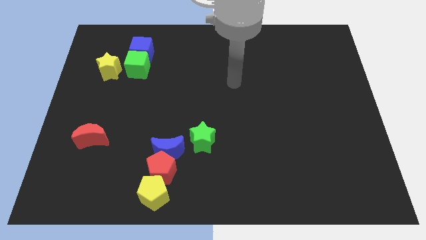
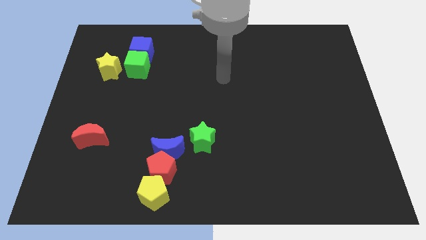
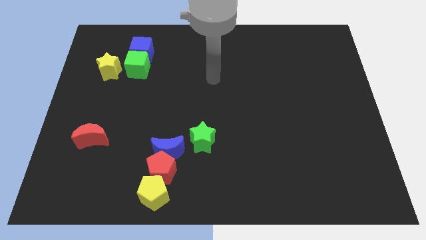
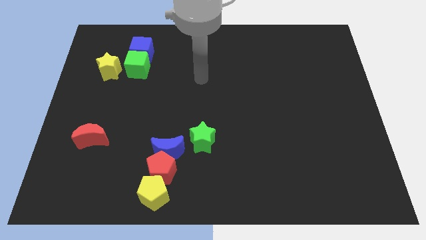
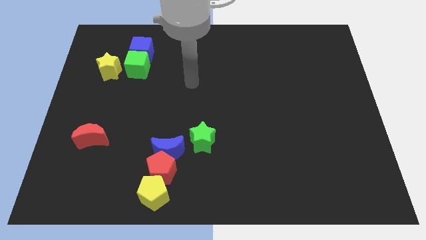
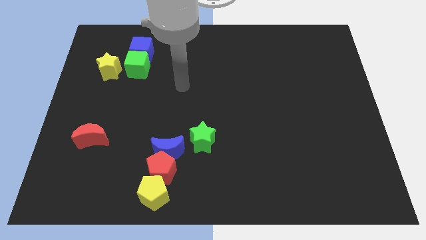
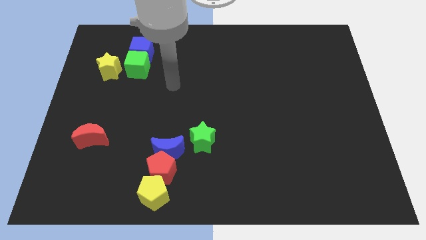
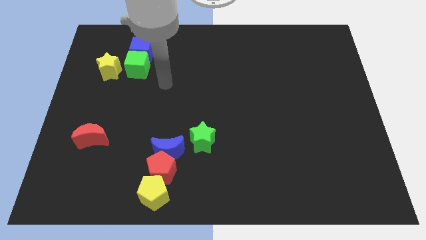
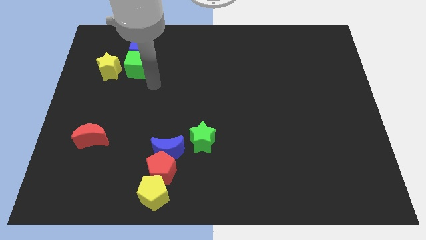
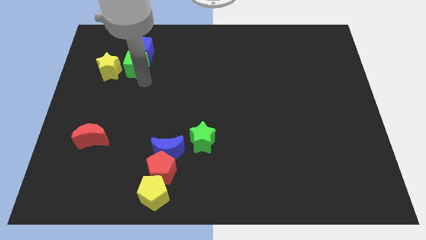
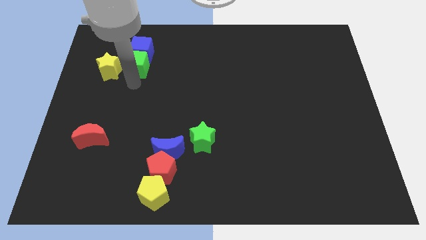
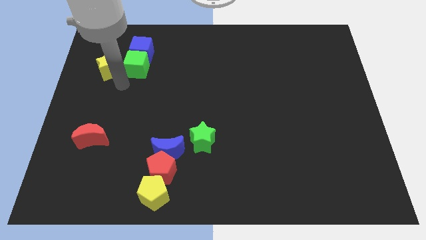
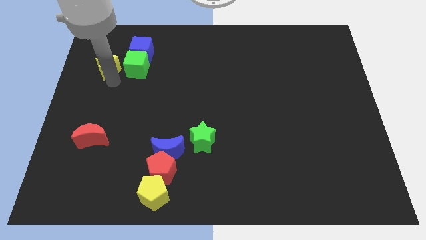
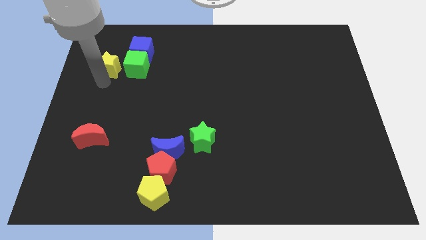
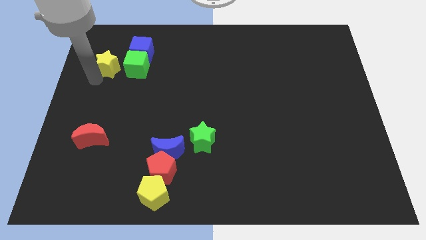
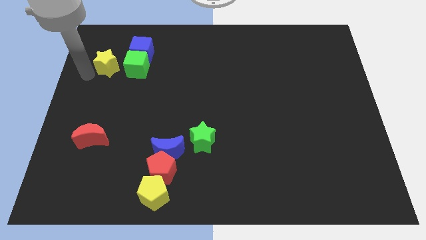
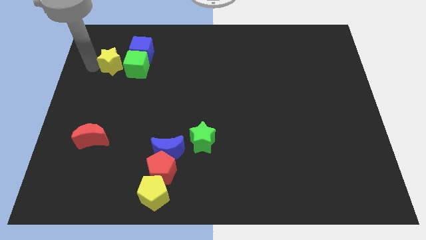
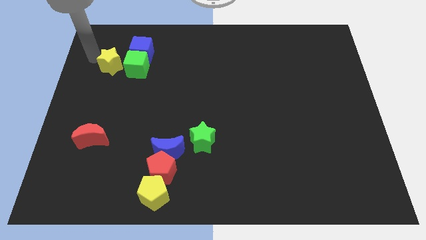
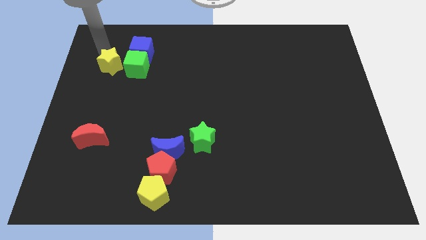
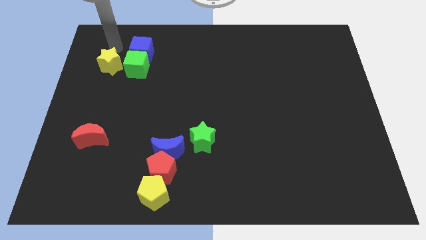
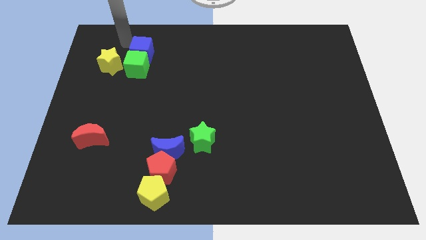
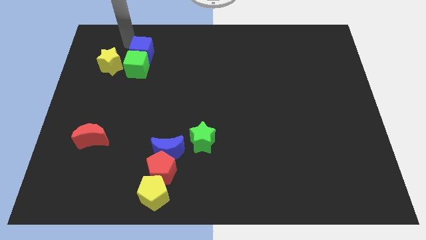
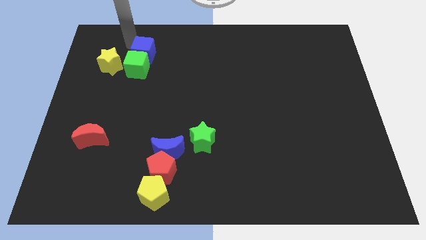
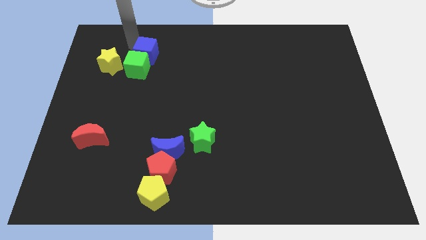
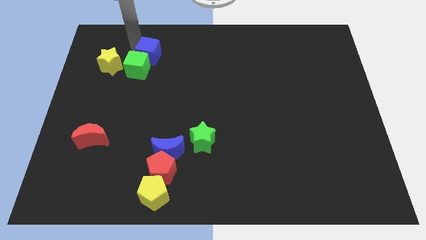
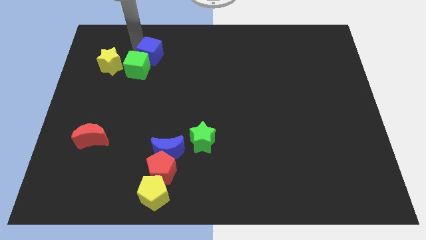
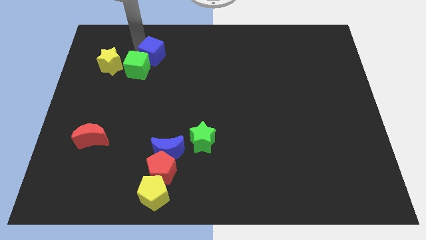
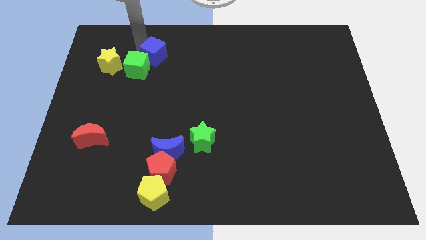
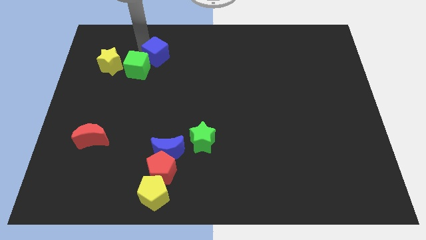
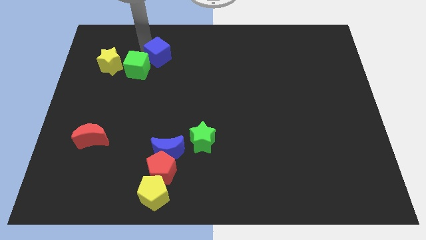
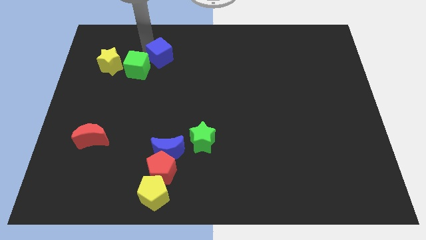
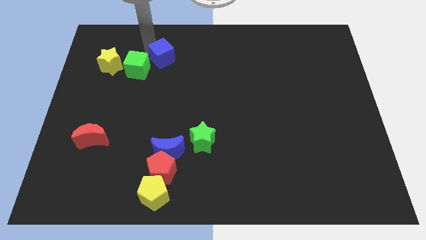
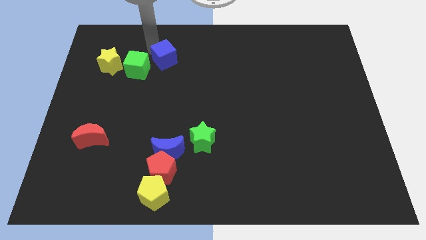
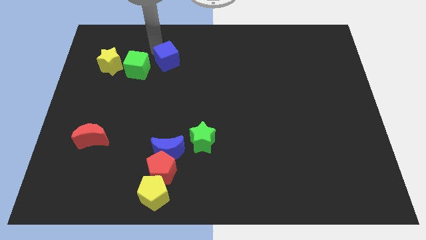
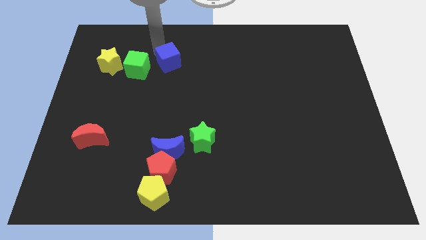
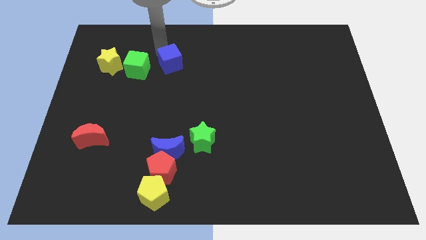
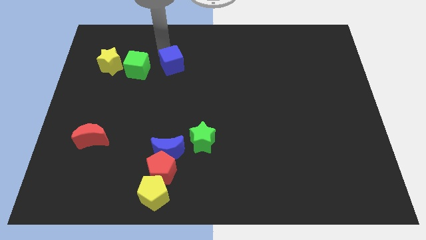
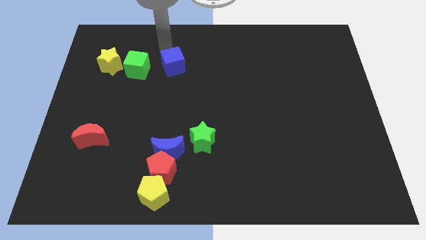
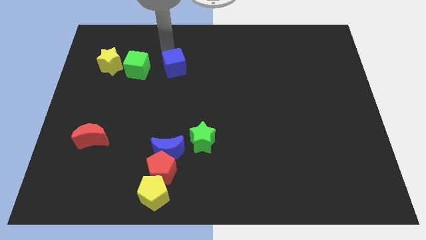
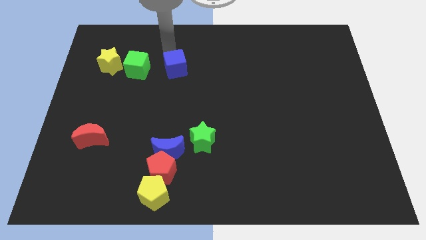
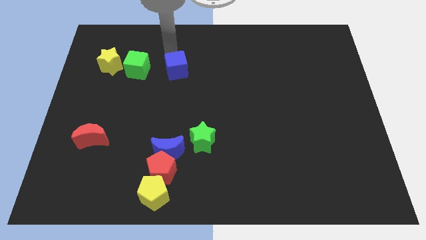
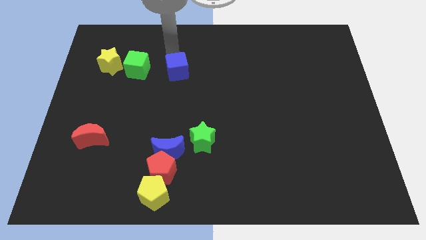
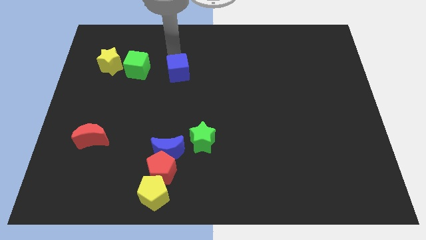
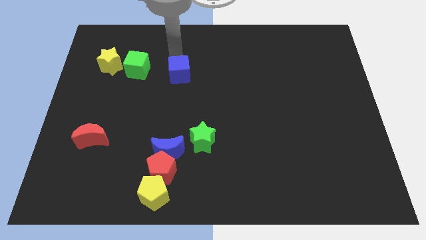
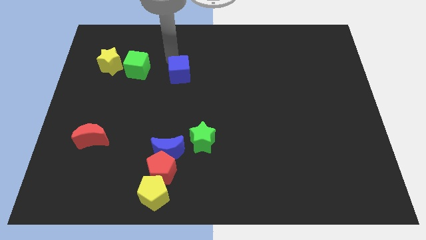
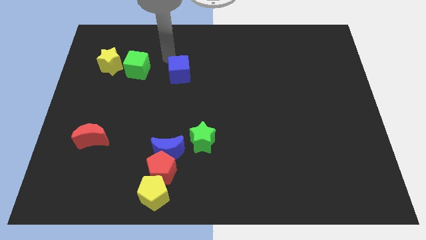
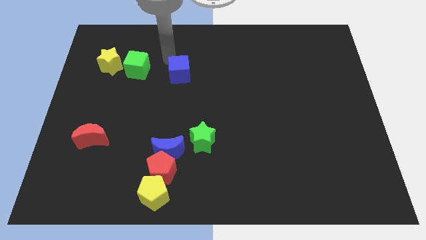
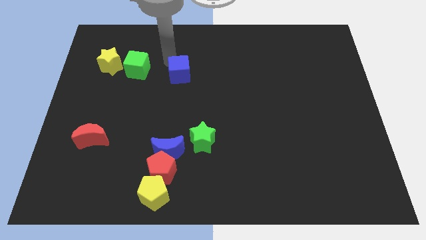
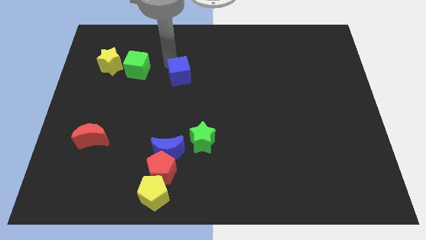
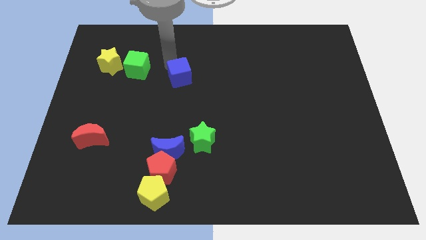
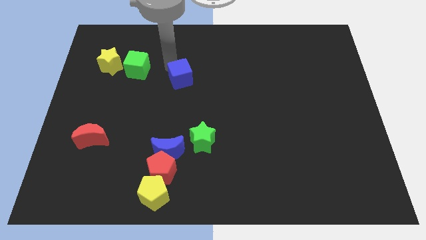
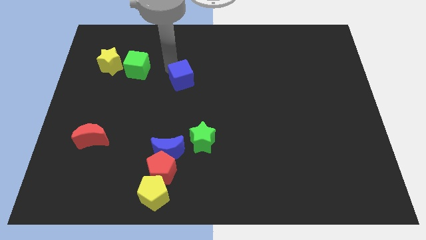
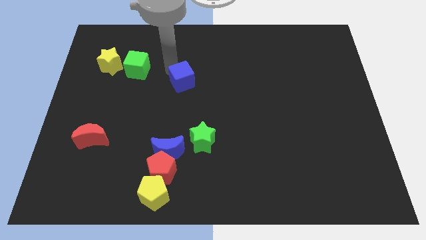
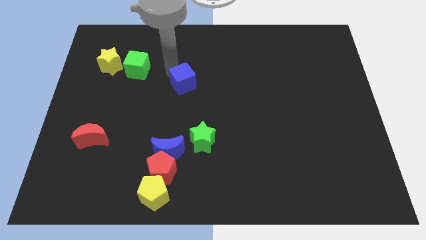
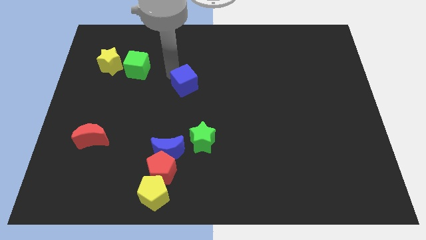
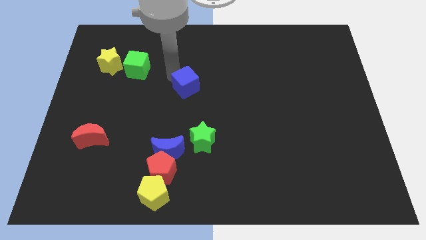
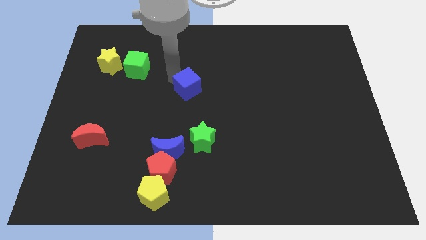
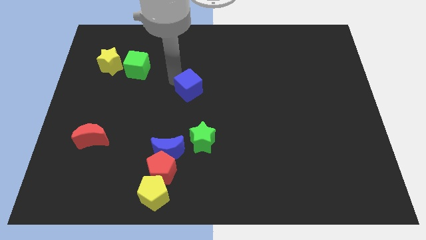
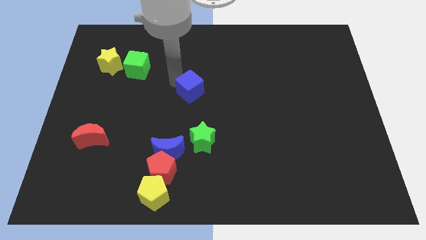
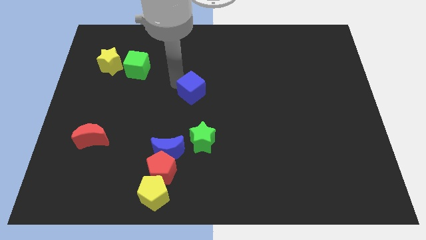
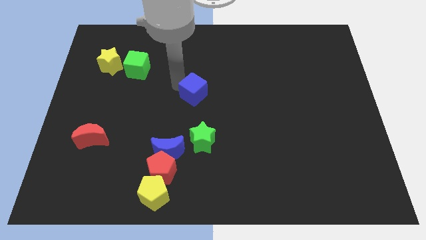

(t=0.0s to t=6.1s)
move the blue cube down and right diagonally

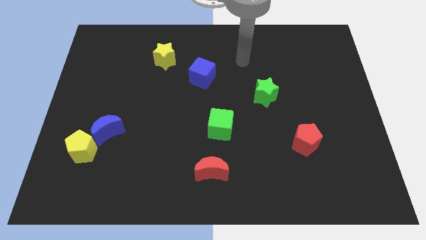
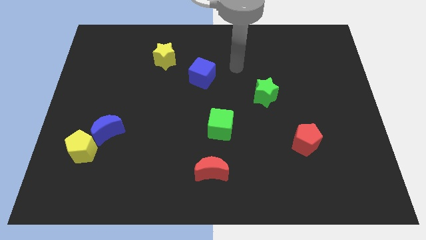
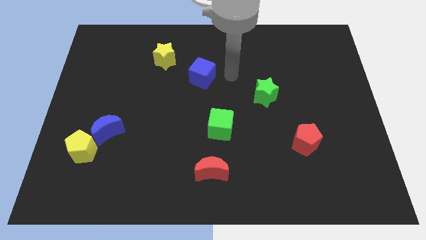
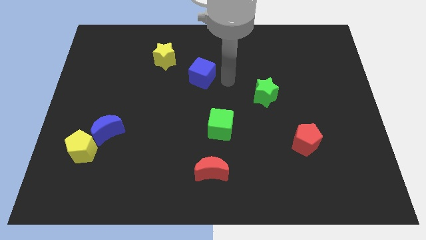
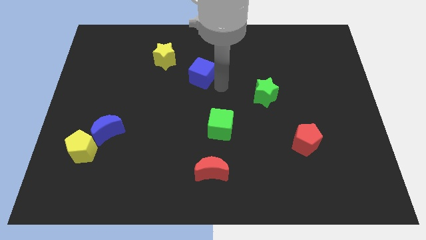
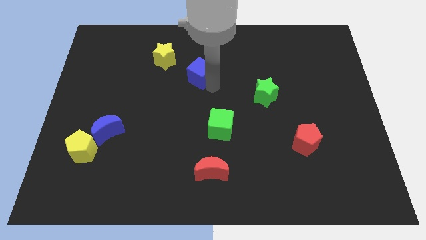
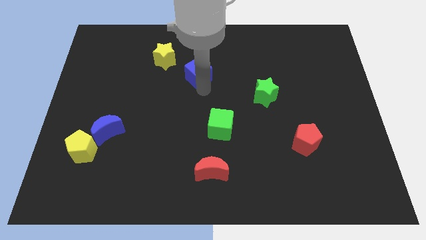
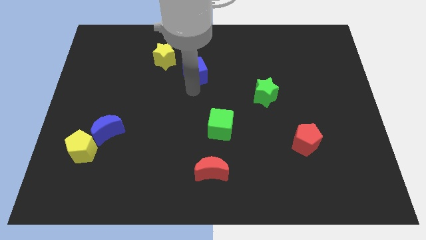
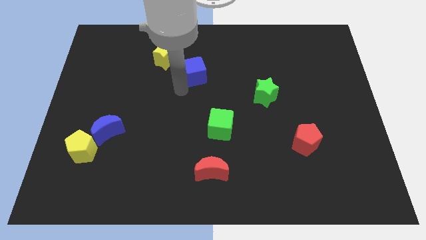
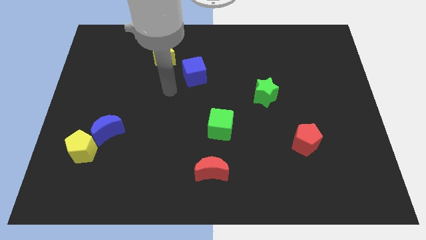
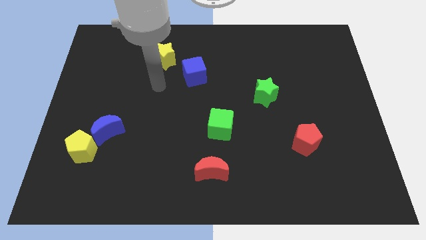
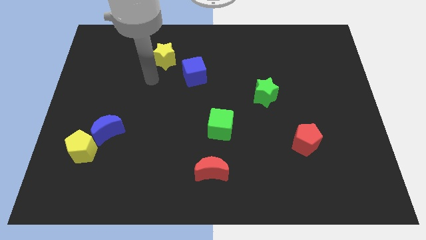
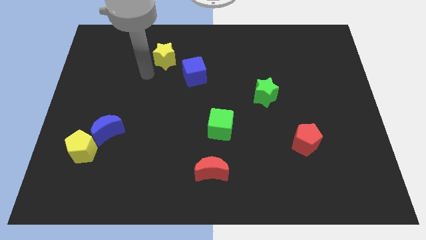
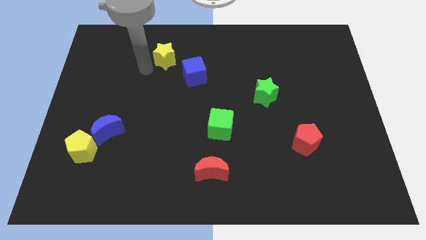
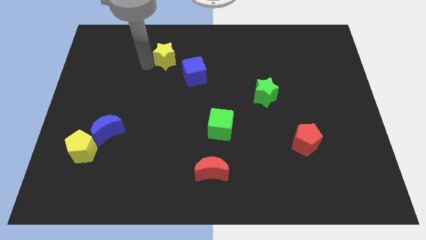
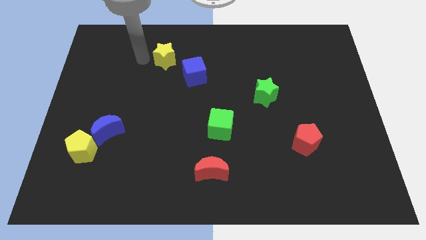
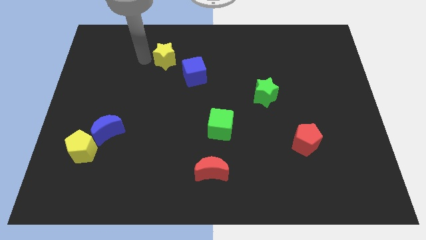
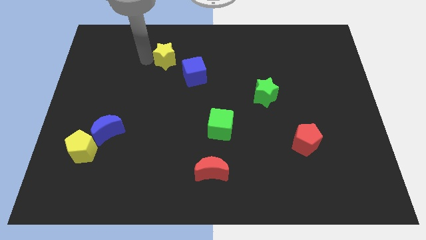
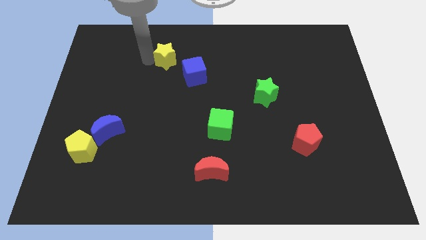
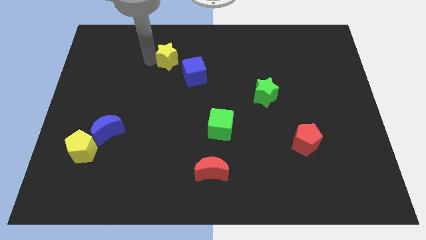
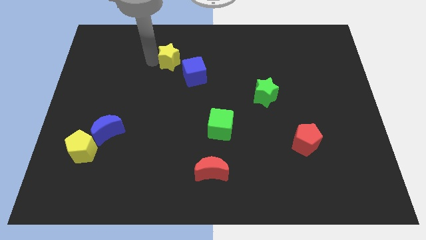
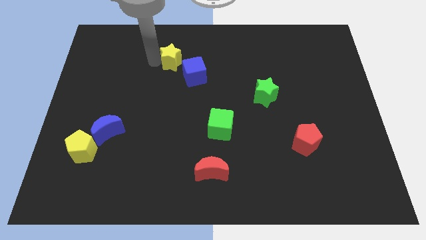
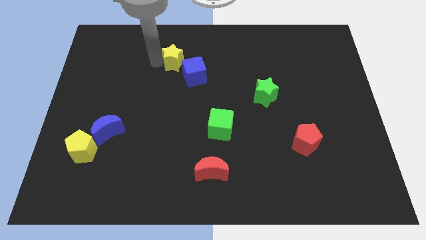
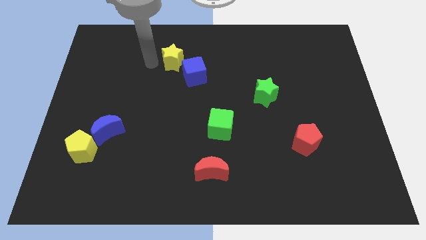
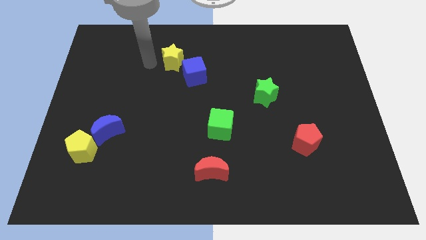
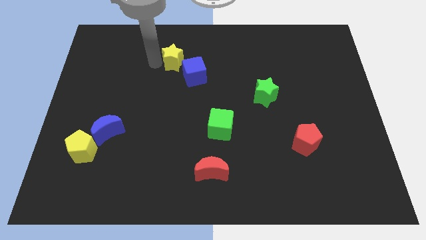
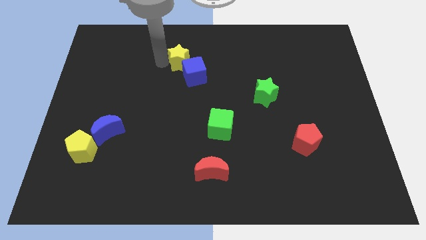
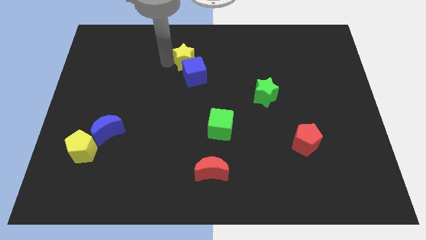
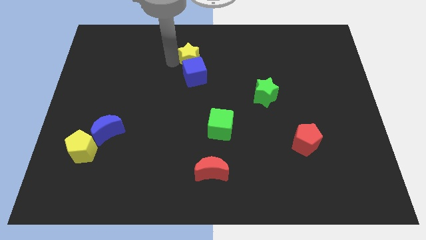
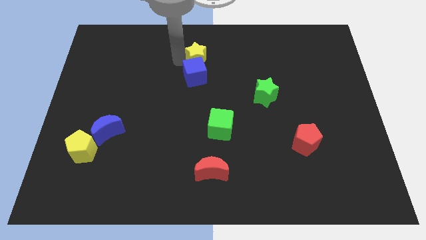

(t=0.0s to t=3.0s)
push the yellow star a little bit to the right
